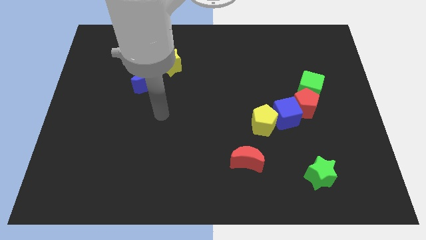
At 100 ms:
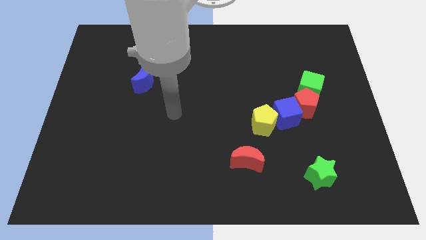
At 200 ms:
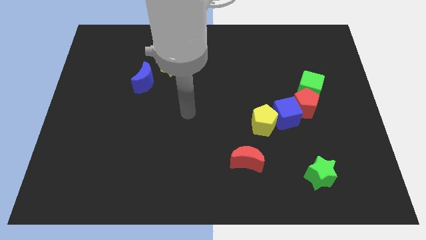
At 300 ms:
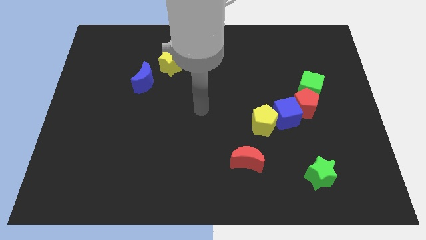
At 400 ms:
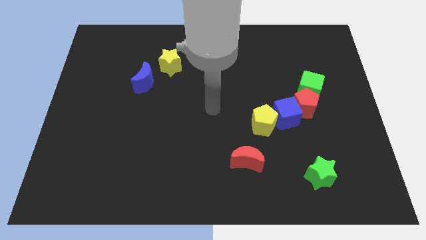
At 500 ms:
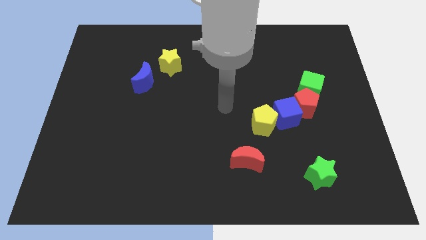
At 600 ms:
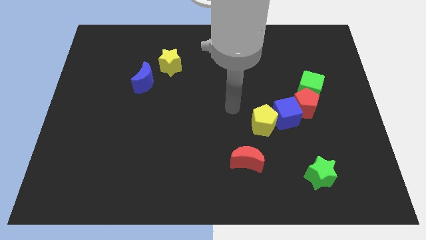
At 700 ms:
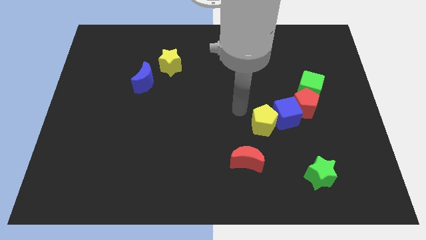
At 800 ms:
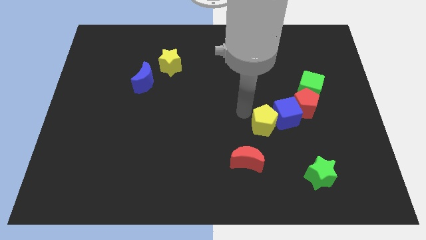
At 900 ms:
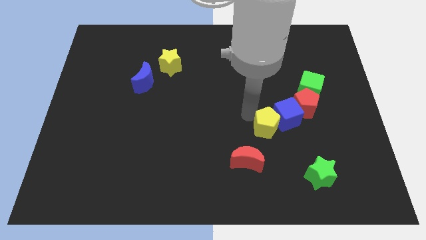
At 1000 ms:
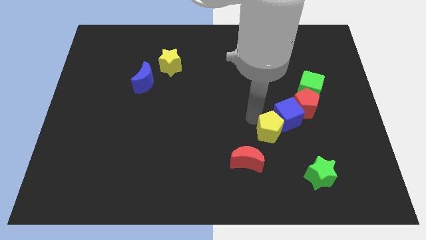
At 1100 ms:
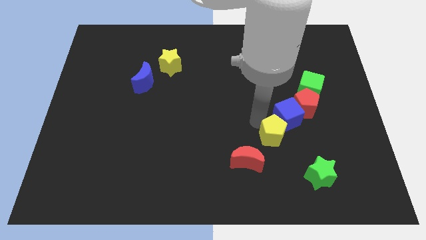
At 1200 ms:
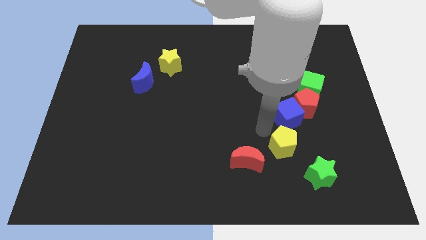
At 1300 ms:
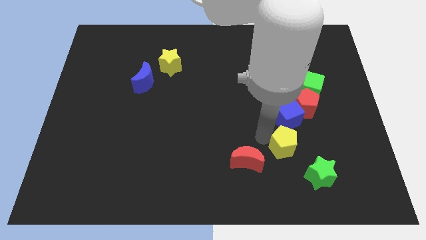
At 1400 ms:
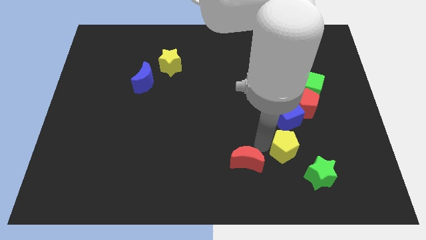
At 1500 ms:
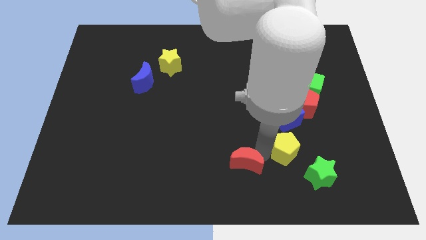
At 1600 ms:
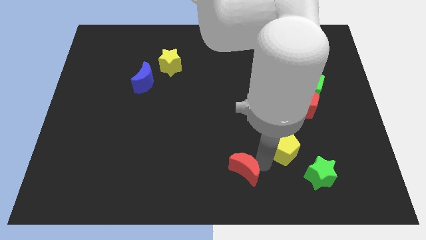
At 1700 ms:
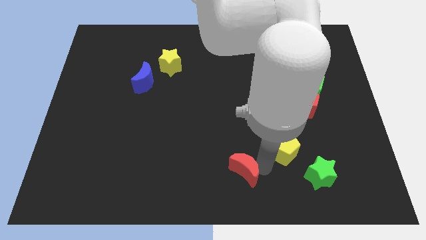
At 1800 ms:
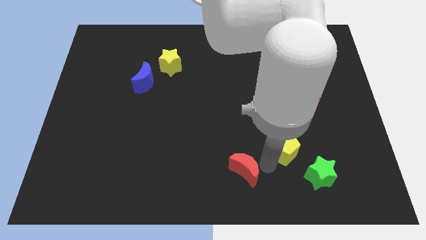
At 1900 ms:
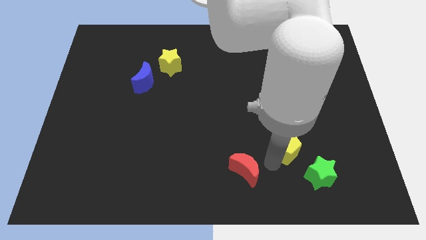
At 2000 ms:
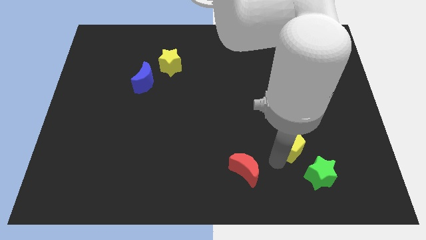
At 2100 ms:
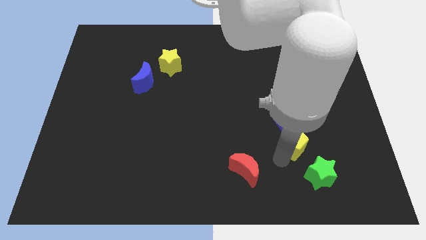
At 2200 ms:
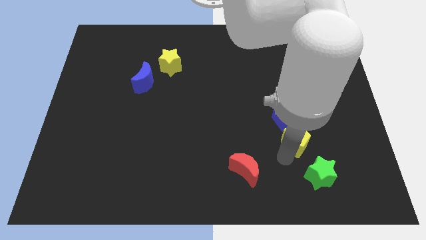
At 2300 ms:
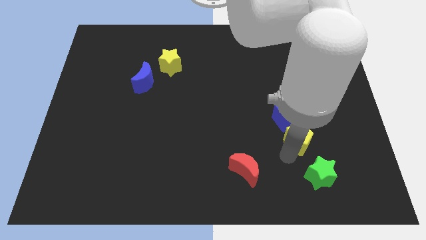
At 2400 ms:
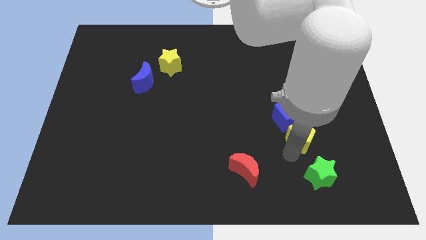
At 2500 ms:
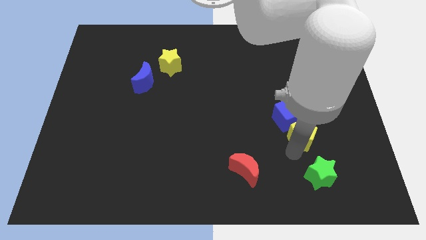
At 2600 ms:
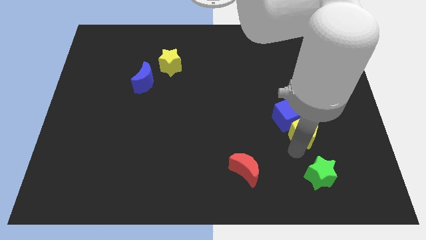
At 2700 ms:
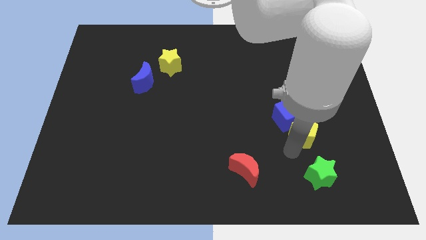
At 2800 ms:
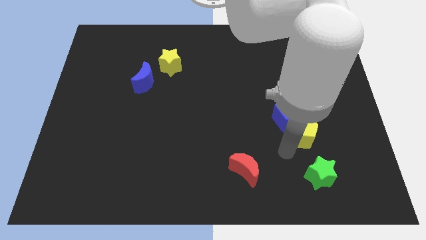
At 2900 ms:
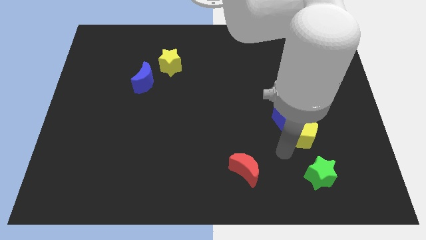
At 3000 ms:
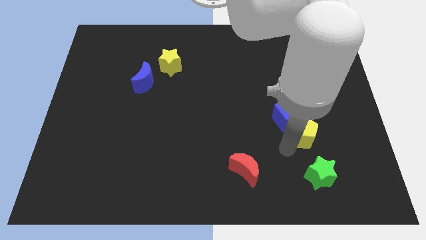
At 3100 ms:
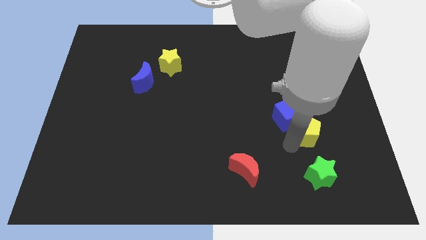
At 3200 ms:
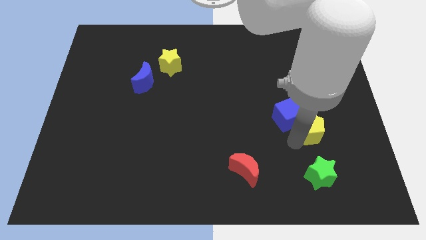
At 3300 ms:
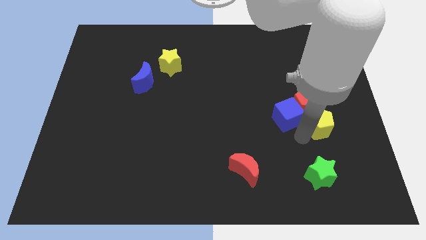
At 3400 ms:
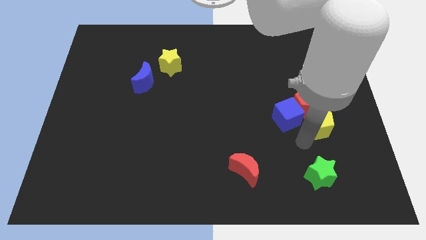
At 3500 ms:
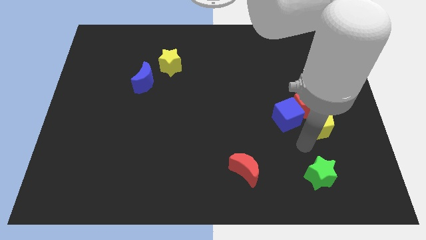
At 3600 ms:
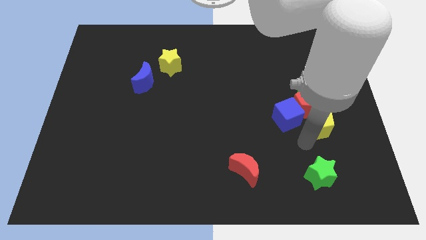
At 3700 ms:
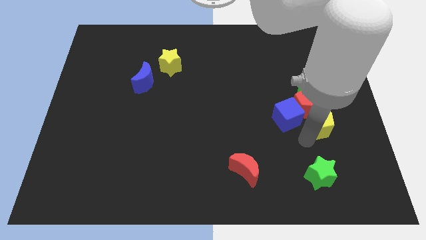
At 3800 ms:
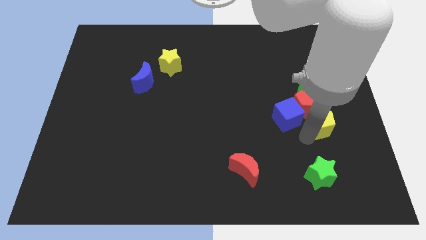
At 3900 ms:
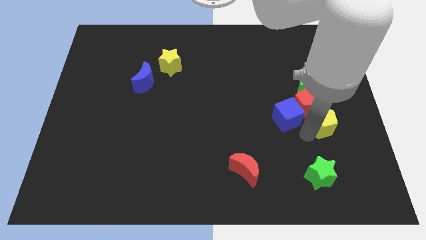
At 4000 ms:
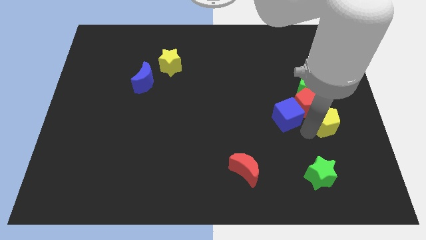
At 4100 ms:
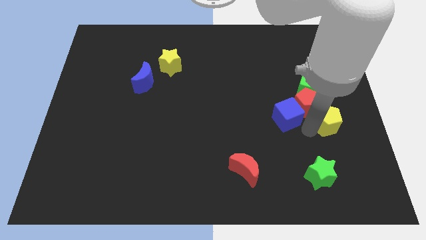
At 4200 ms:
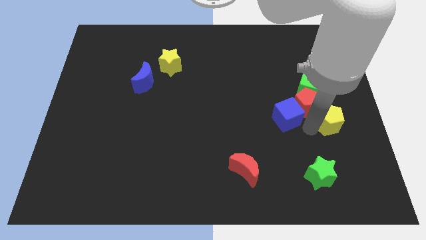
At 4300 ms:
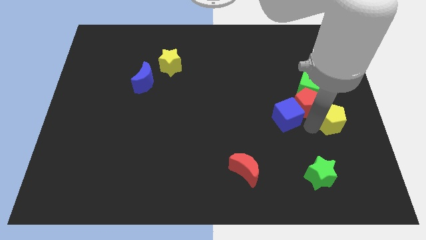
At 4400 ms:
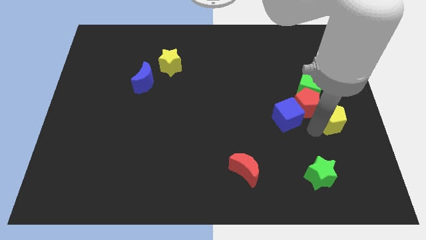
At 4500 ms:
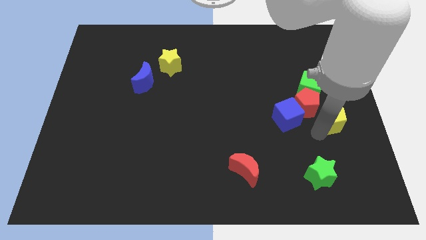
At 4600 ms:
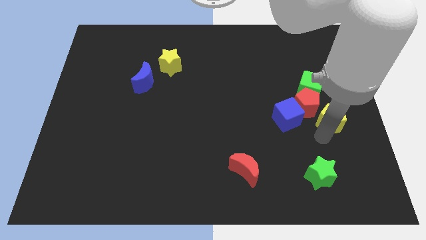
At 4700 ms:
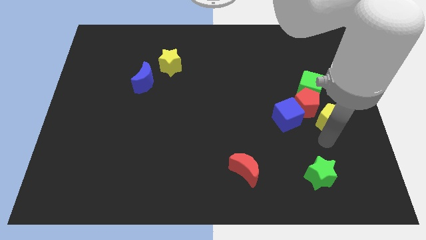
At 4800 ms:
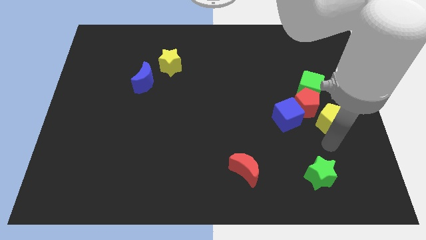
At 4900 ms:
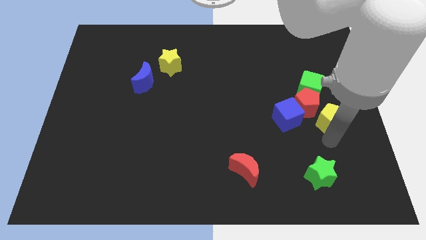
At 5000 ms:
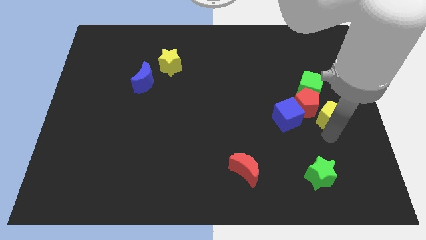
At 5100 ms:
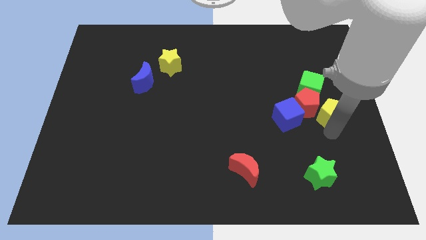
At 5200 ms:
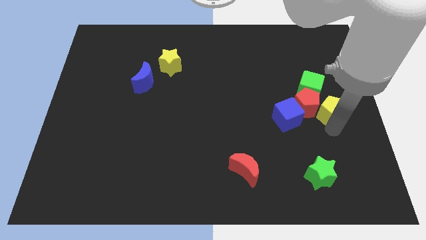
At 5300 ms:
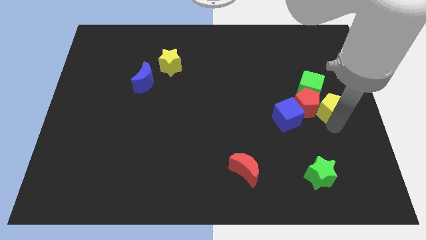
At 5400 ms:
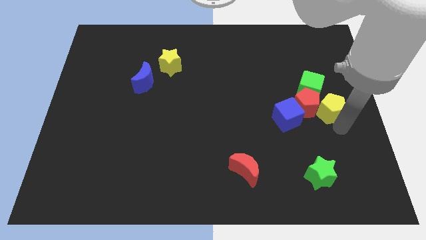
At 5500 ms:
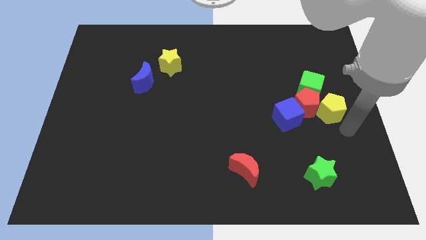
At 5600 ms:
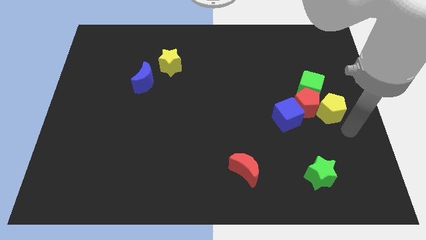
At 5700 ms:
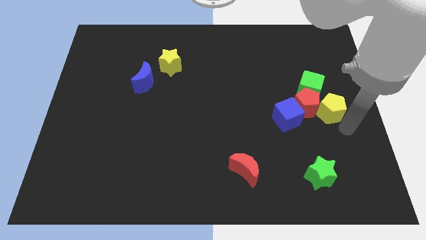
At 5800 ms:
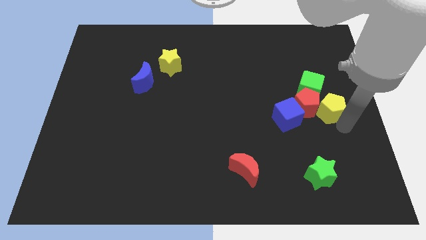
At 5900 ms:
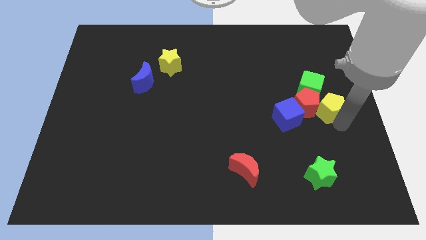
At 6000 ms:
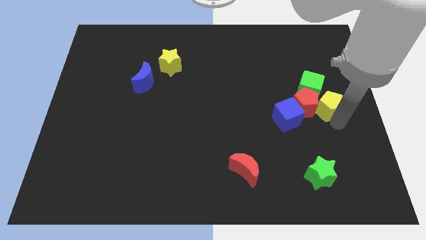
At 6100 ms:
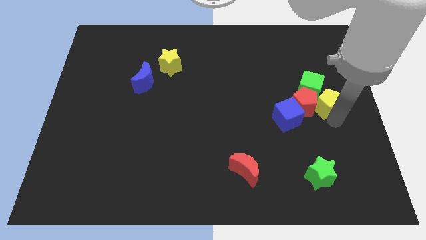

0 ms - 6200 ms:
put the yellow pentagon close to the green cube

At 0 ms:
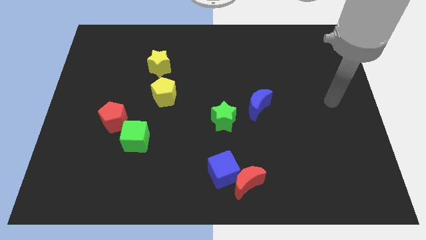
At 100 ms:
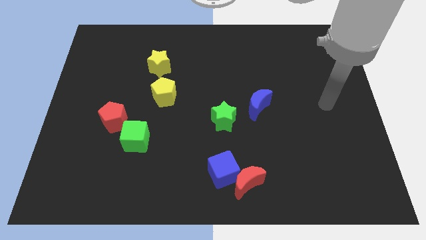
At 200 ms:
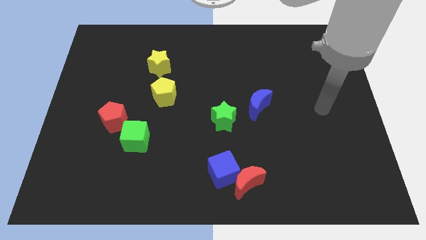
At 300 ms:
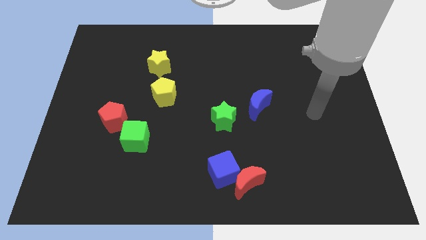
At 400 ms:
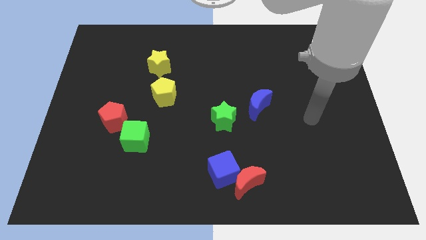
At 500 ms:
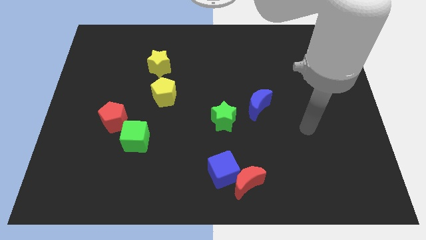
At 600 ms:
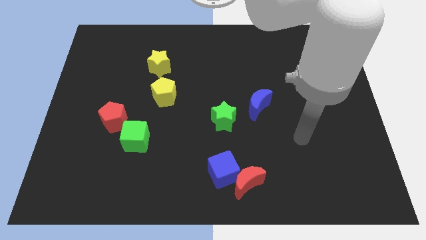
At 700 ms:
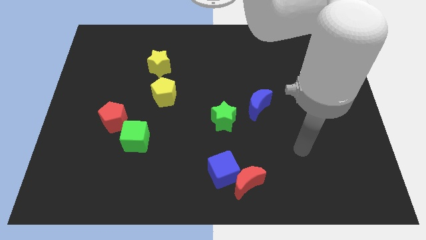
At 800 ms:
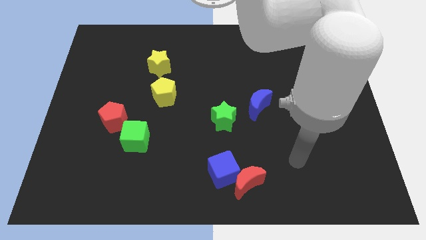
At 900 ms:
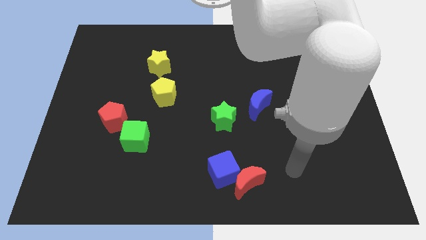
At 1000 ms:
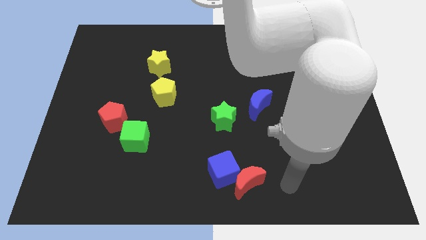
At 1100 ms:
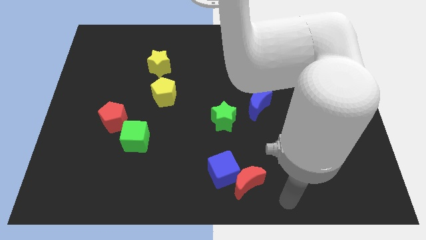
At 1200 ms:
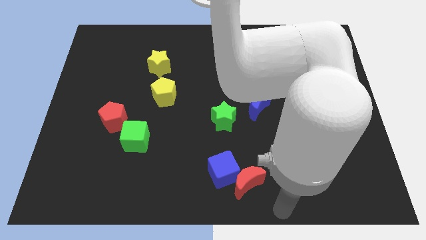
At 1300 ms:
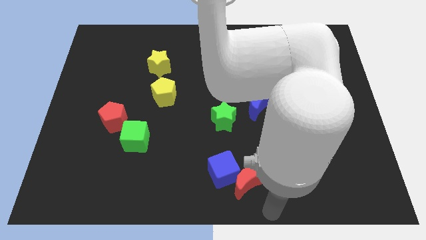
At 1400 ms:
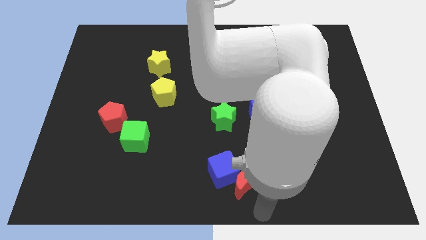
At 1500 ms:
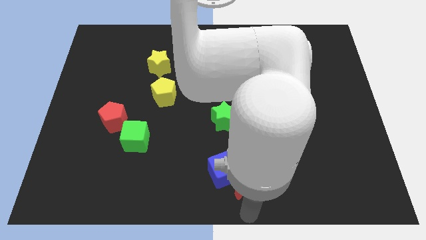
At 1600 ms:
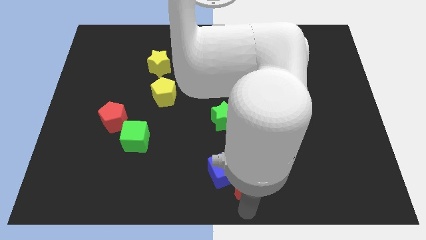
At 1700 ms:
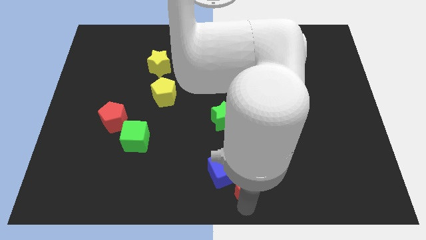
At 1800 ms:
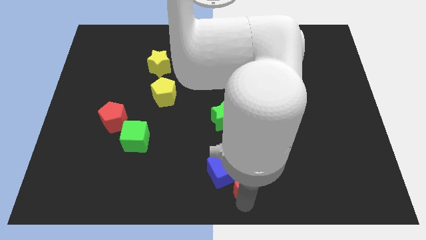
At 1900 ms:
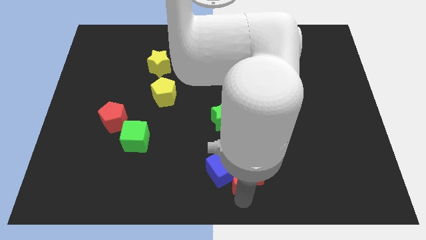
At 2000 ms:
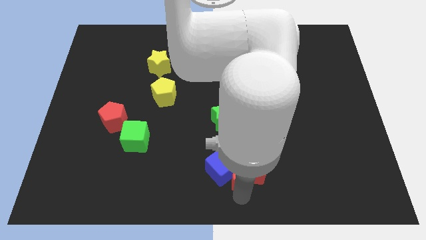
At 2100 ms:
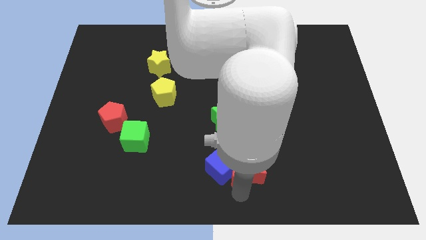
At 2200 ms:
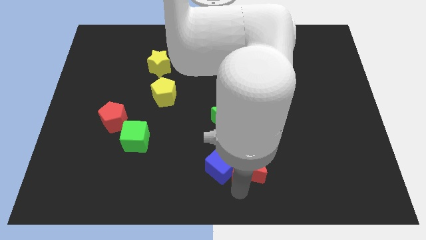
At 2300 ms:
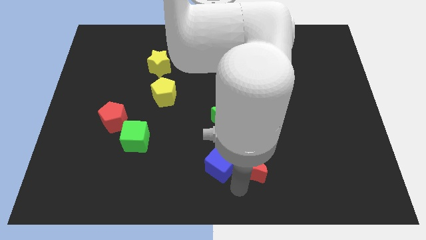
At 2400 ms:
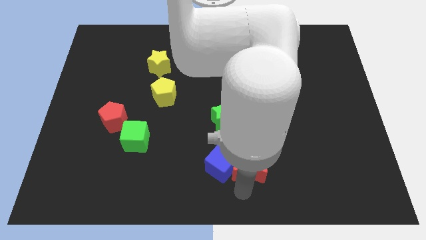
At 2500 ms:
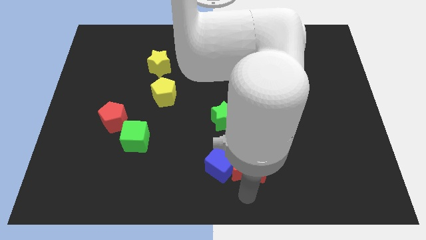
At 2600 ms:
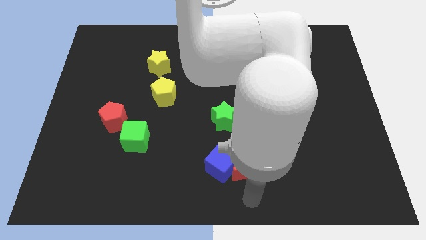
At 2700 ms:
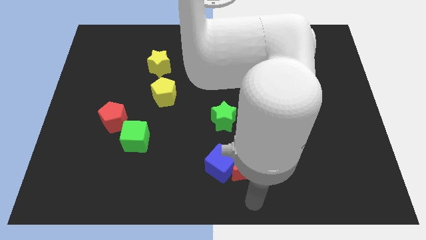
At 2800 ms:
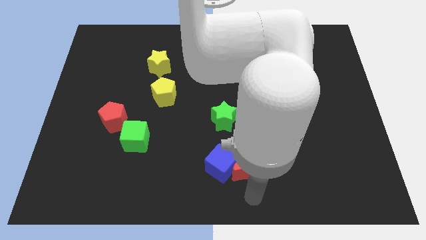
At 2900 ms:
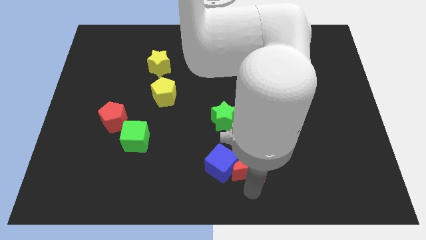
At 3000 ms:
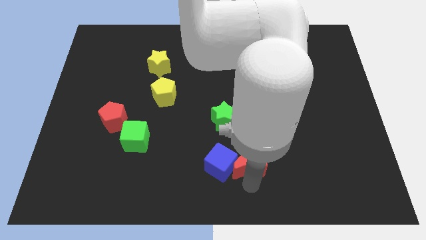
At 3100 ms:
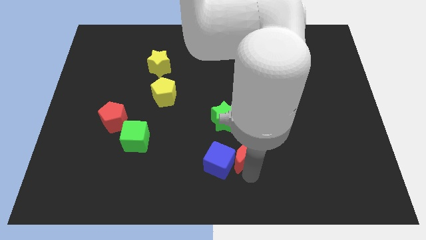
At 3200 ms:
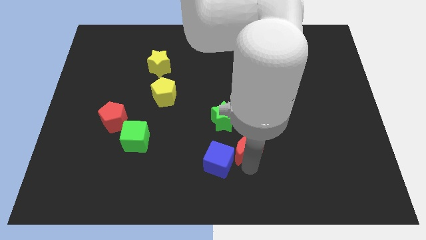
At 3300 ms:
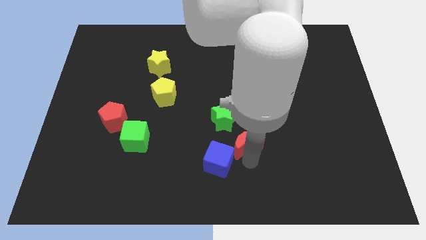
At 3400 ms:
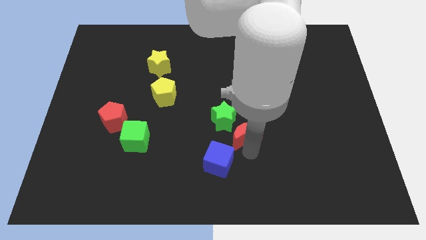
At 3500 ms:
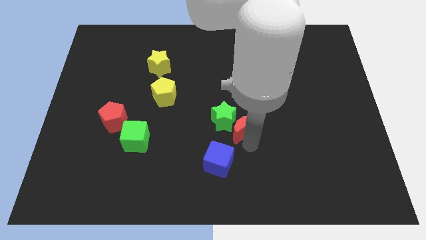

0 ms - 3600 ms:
push the red moon towards the green star
